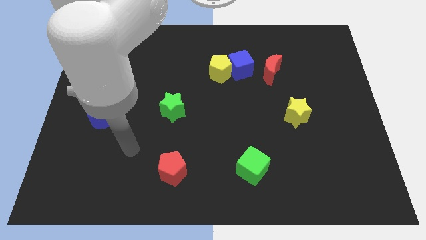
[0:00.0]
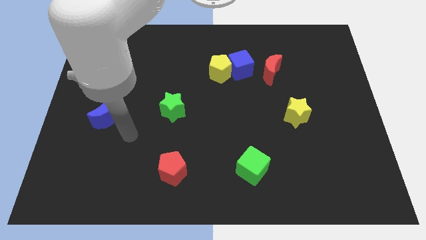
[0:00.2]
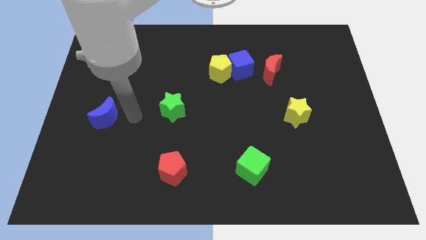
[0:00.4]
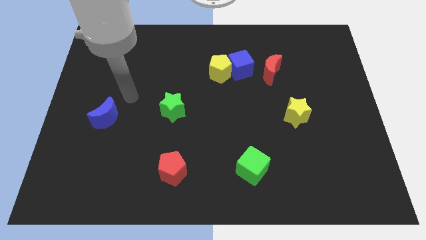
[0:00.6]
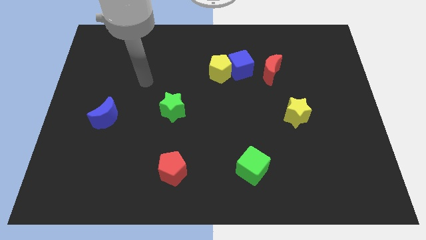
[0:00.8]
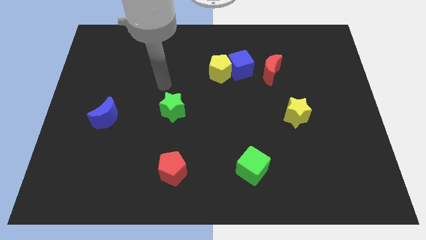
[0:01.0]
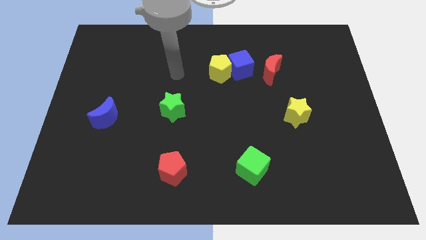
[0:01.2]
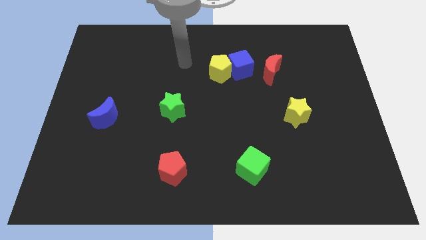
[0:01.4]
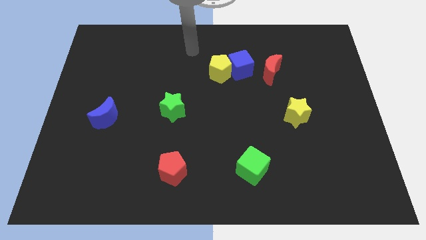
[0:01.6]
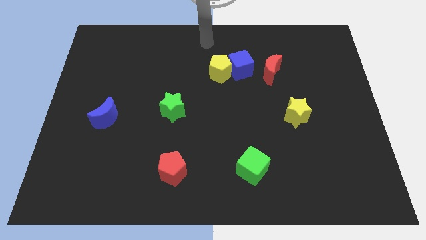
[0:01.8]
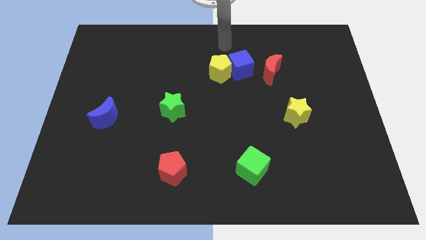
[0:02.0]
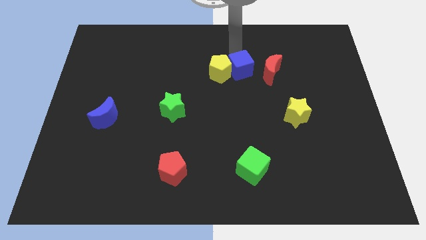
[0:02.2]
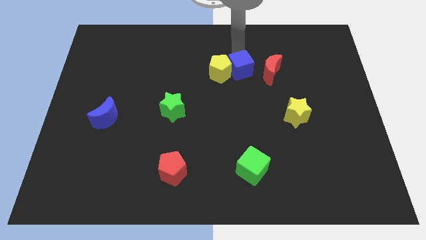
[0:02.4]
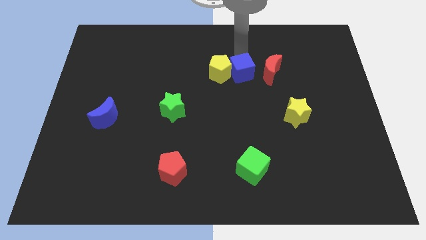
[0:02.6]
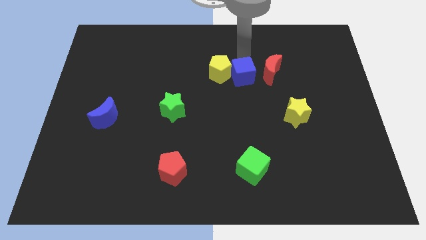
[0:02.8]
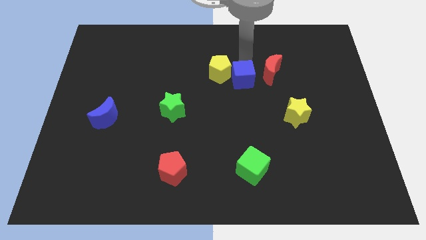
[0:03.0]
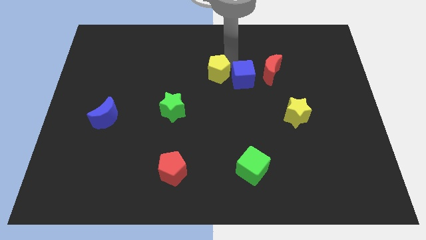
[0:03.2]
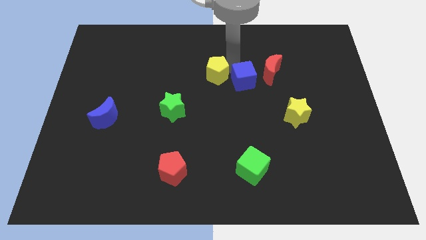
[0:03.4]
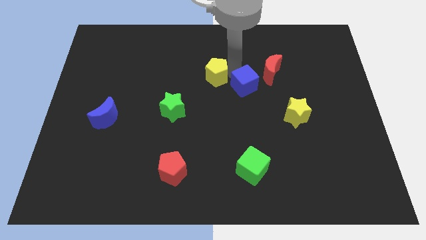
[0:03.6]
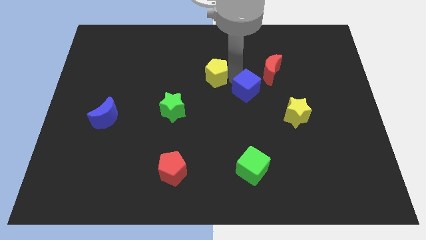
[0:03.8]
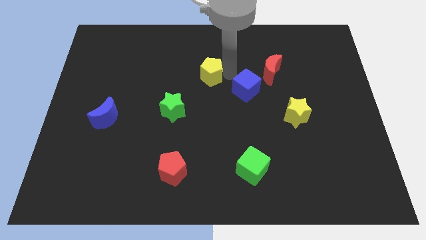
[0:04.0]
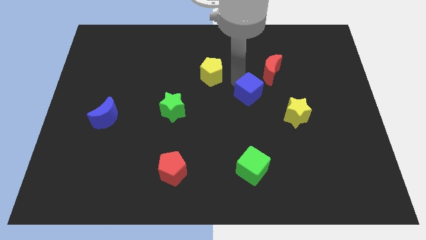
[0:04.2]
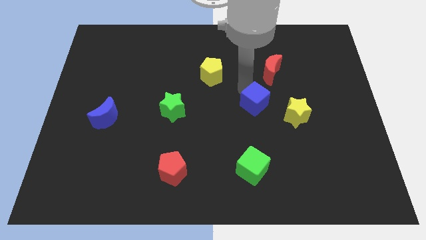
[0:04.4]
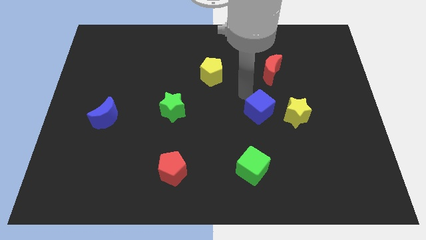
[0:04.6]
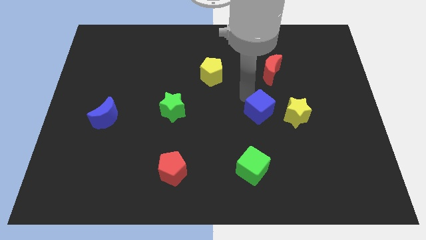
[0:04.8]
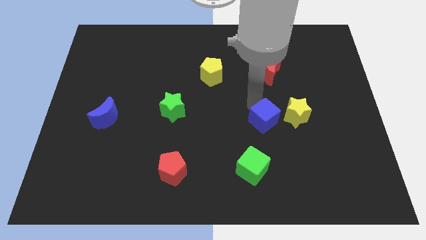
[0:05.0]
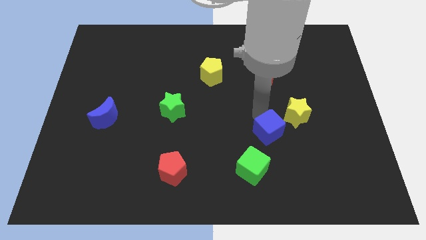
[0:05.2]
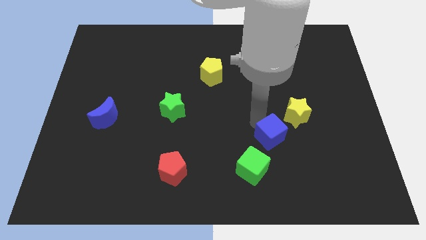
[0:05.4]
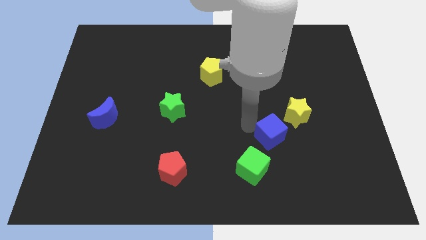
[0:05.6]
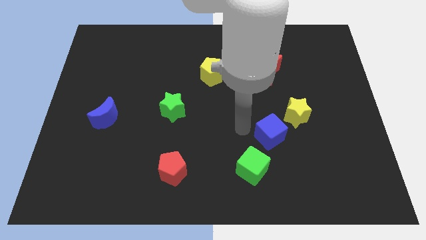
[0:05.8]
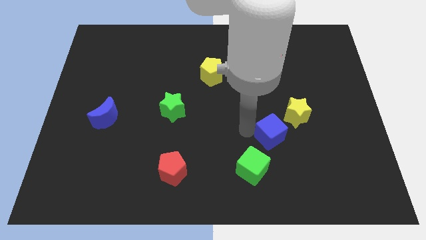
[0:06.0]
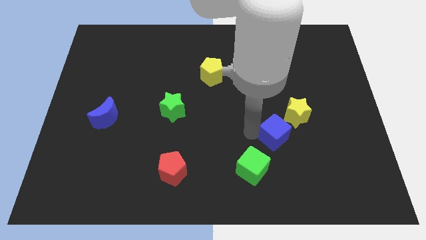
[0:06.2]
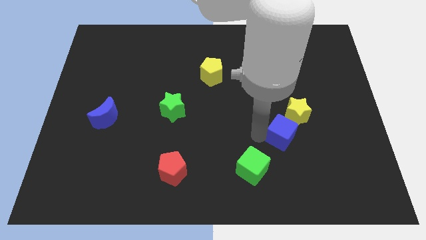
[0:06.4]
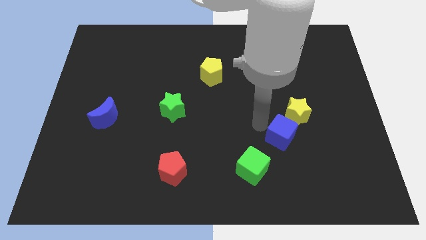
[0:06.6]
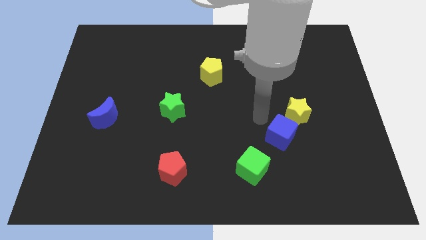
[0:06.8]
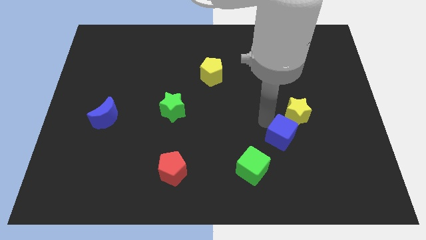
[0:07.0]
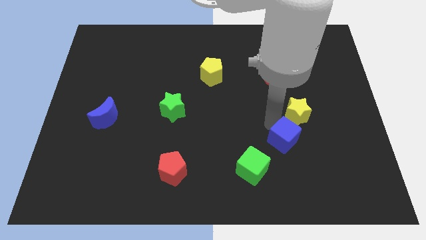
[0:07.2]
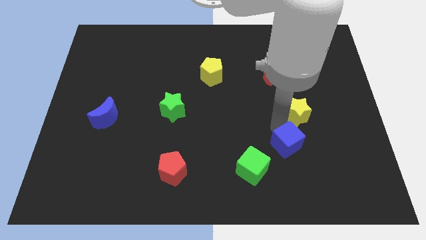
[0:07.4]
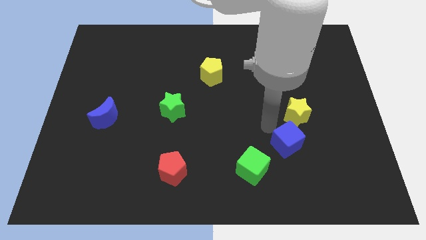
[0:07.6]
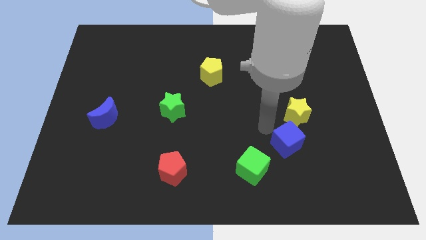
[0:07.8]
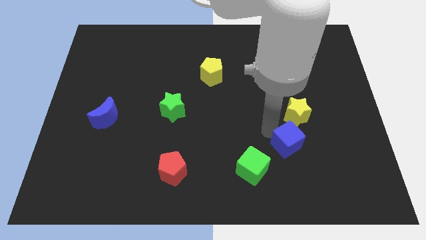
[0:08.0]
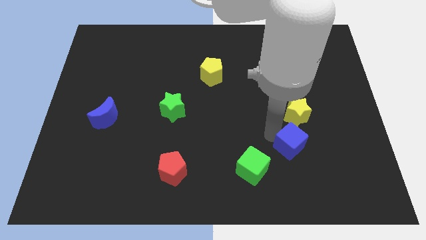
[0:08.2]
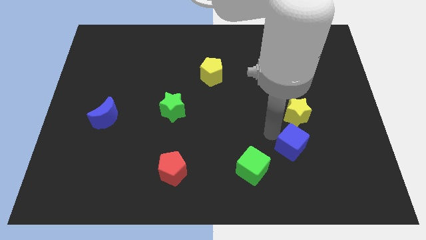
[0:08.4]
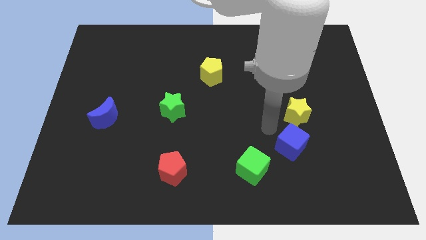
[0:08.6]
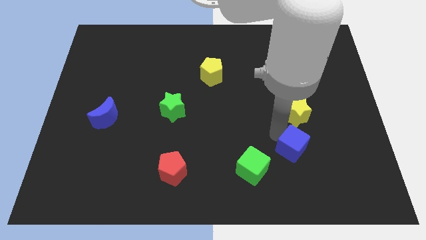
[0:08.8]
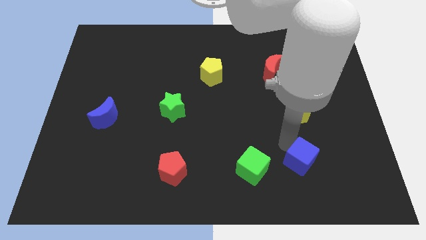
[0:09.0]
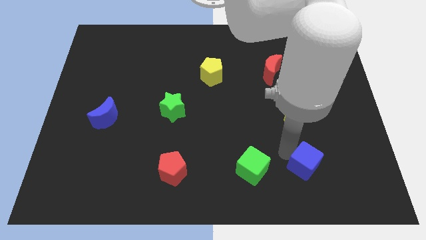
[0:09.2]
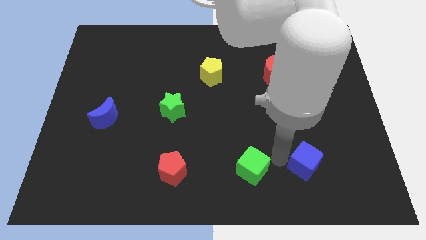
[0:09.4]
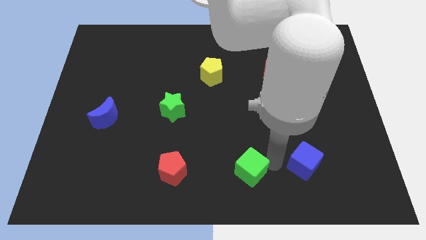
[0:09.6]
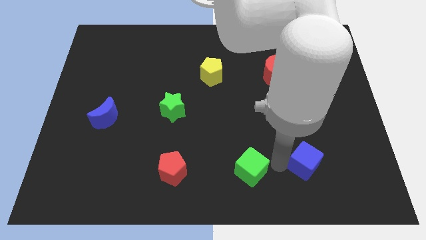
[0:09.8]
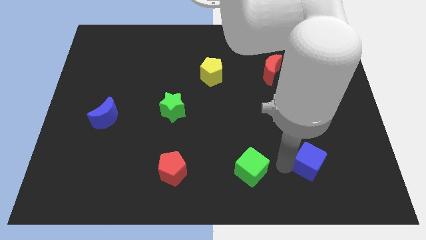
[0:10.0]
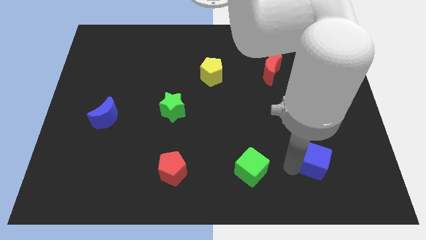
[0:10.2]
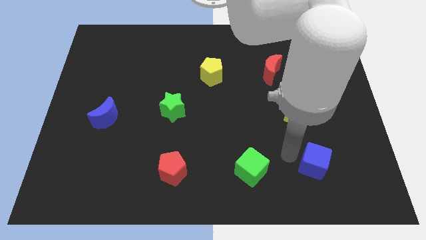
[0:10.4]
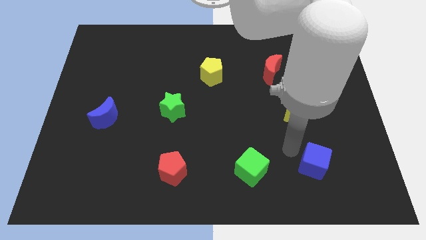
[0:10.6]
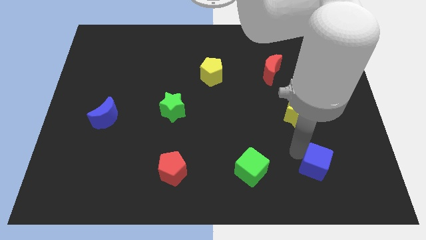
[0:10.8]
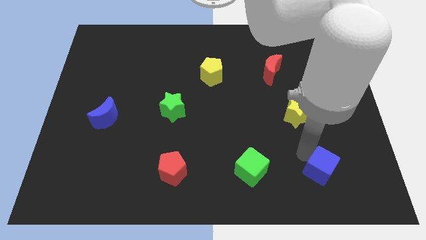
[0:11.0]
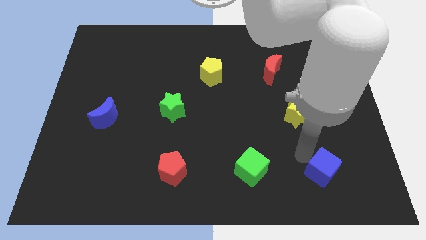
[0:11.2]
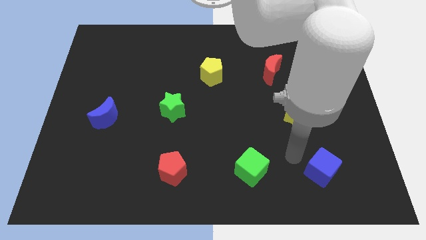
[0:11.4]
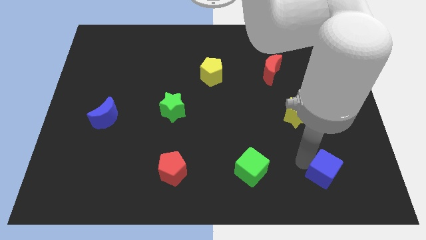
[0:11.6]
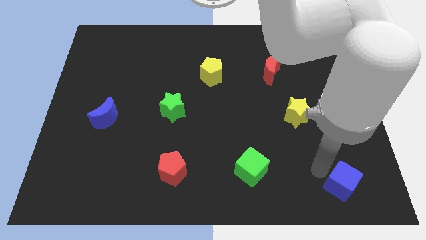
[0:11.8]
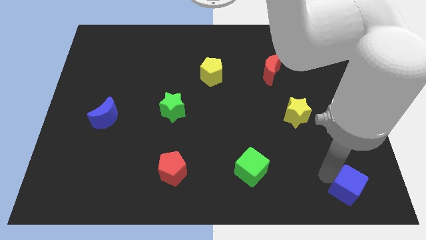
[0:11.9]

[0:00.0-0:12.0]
push the blue cube to the bottom right
